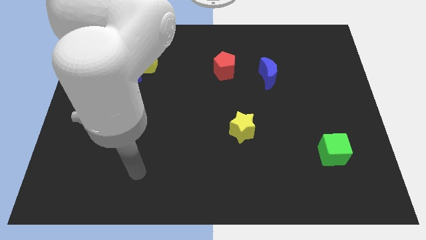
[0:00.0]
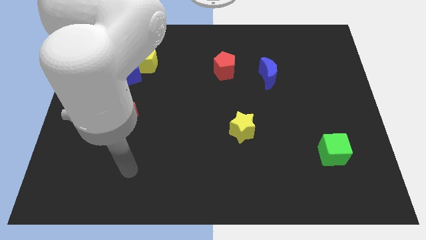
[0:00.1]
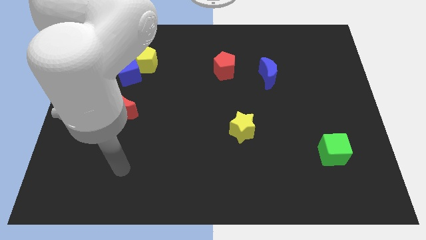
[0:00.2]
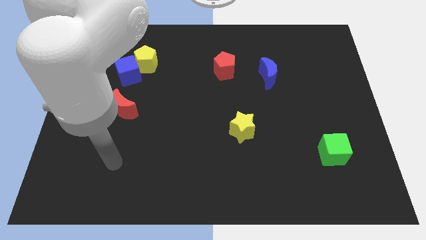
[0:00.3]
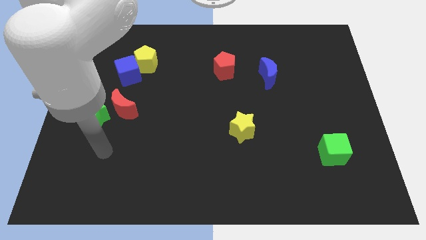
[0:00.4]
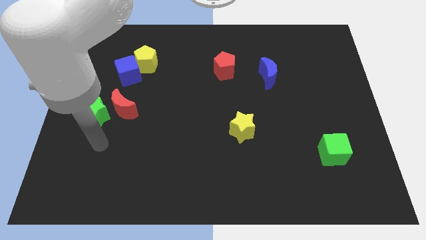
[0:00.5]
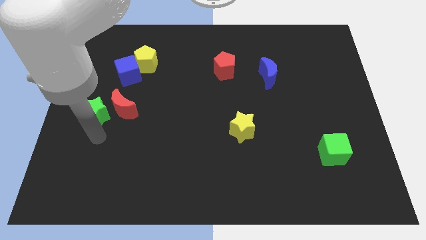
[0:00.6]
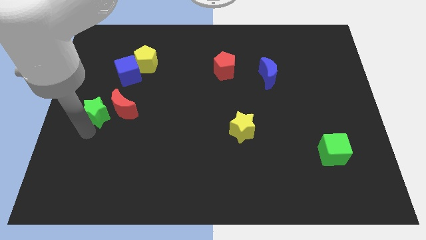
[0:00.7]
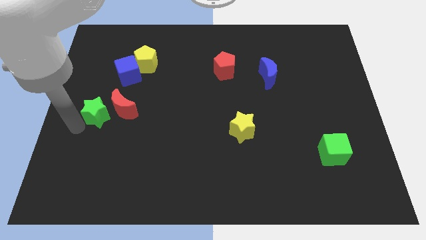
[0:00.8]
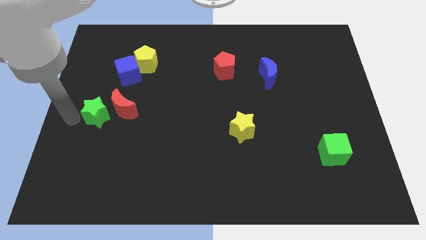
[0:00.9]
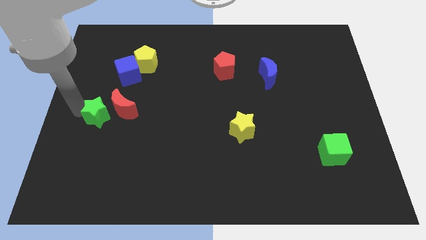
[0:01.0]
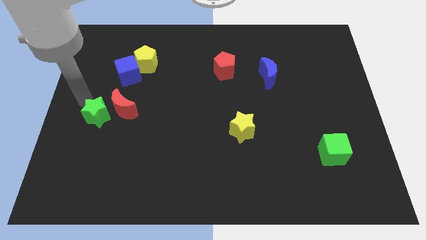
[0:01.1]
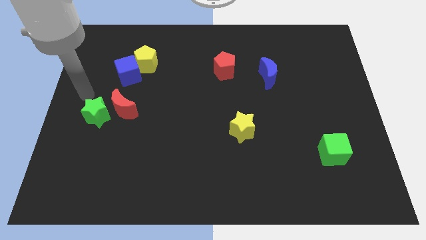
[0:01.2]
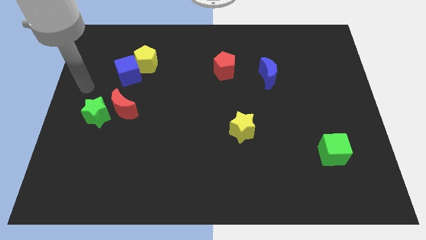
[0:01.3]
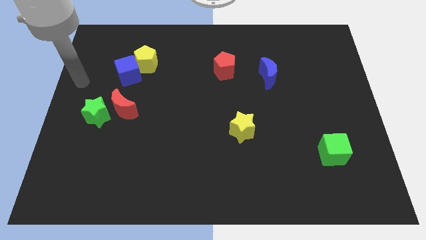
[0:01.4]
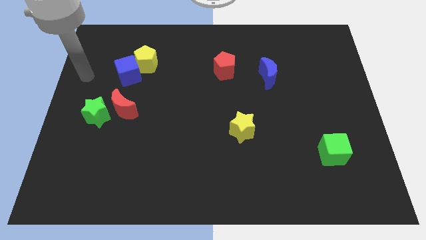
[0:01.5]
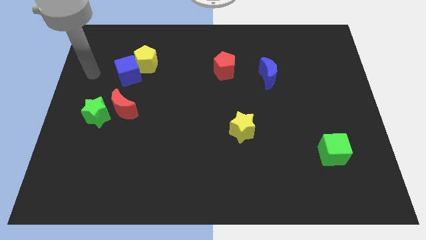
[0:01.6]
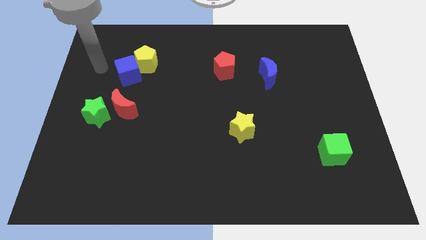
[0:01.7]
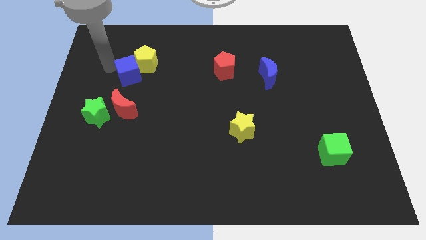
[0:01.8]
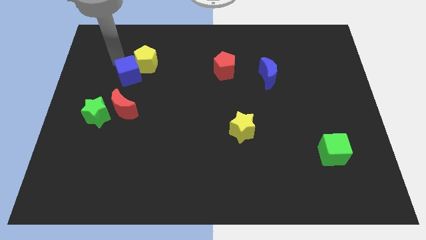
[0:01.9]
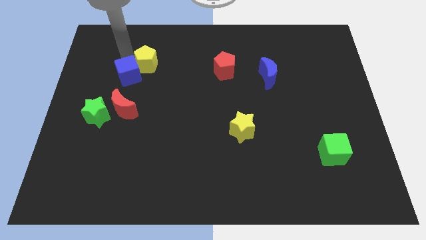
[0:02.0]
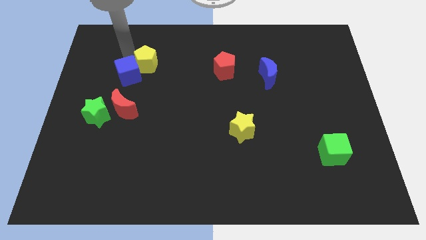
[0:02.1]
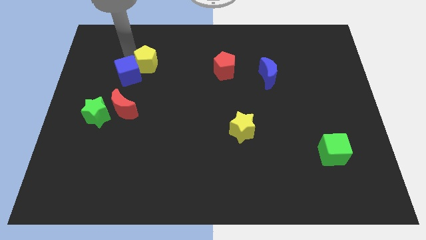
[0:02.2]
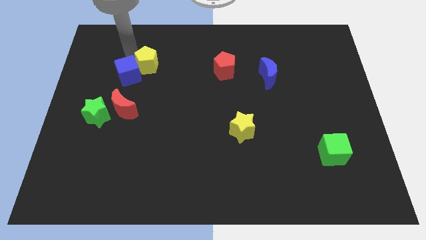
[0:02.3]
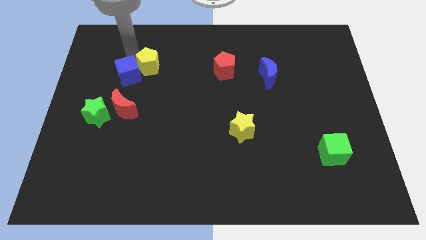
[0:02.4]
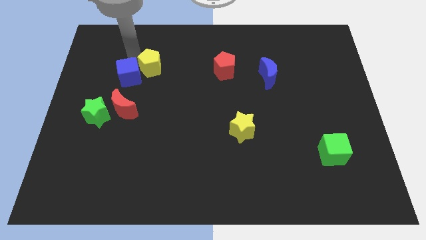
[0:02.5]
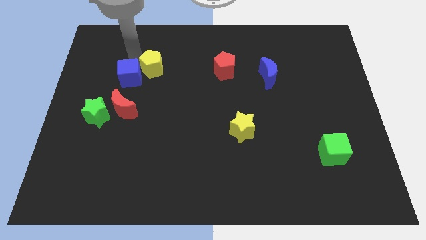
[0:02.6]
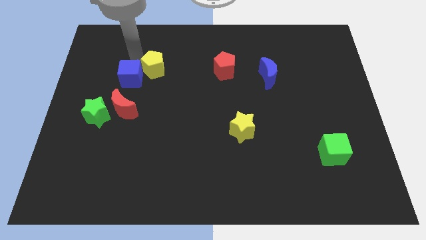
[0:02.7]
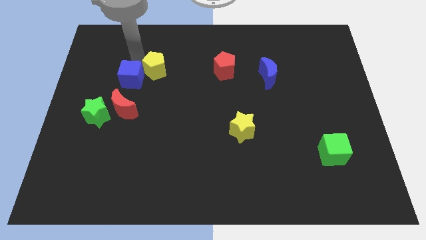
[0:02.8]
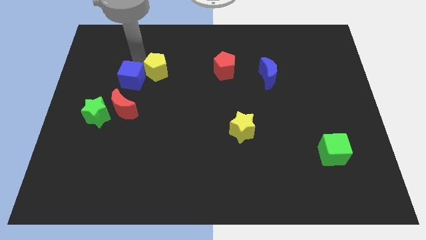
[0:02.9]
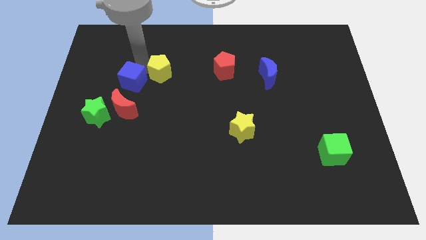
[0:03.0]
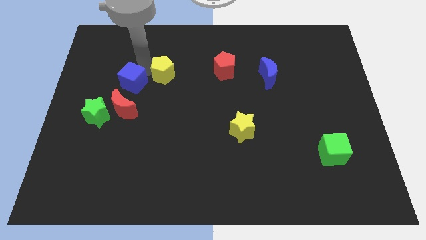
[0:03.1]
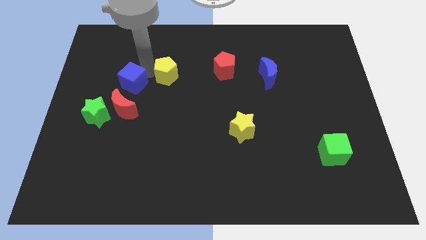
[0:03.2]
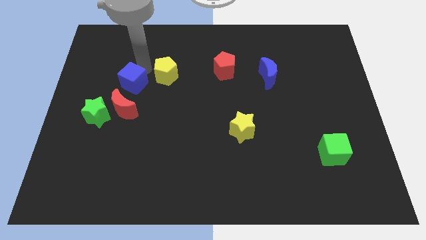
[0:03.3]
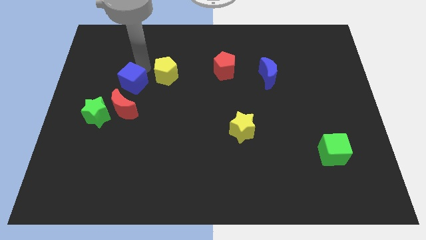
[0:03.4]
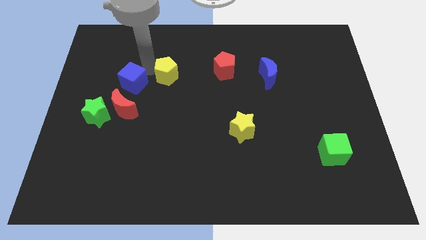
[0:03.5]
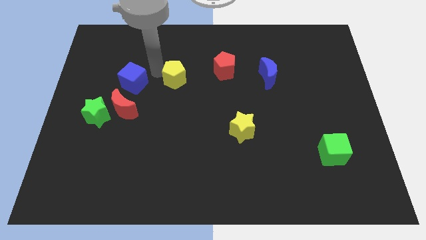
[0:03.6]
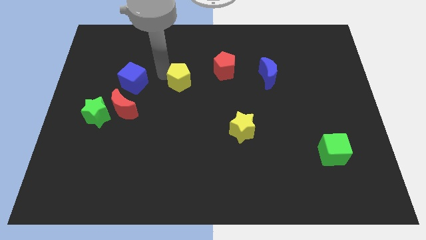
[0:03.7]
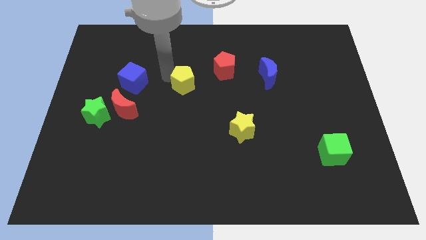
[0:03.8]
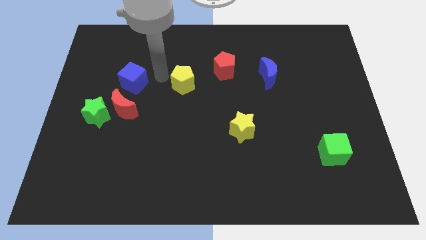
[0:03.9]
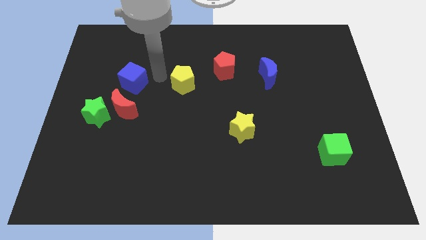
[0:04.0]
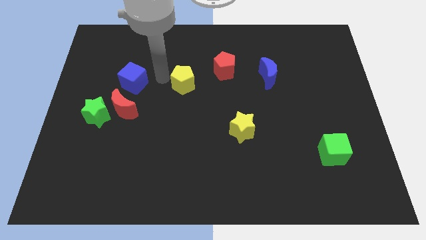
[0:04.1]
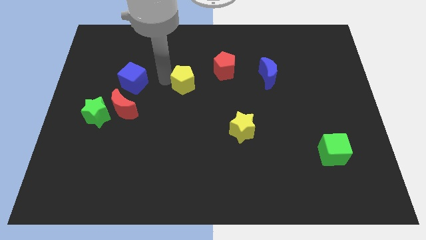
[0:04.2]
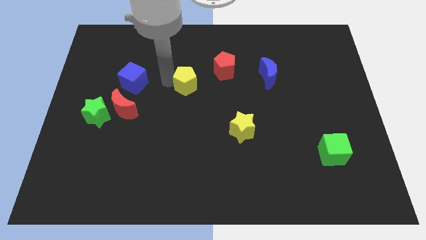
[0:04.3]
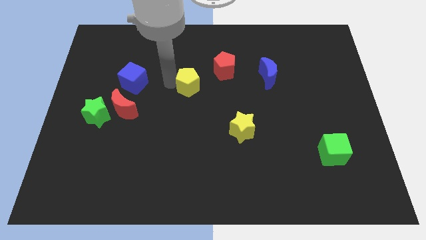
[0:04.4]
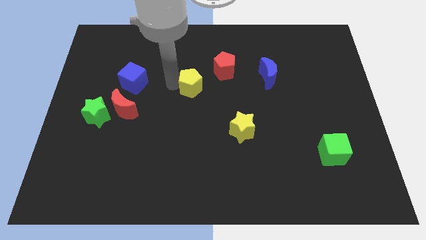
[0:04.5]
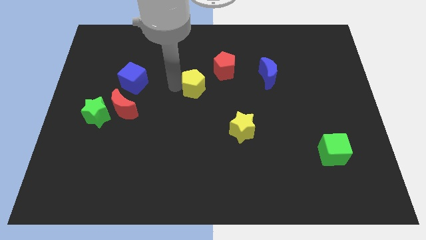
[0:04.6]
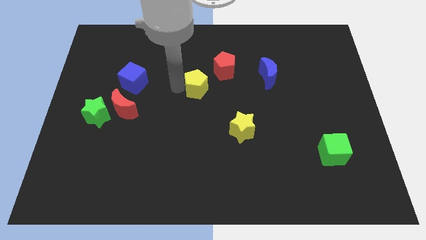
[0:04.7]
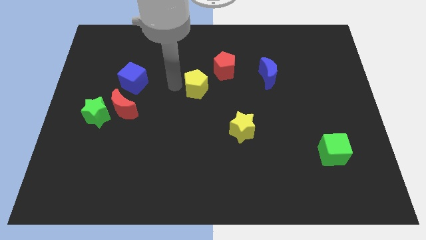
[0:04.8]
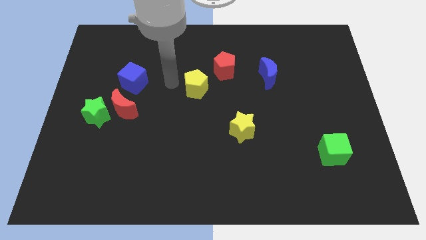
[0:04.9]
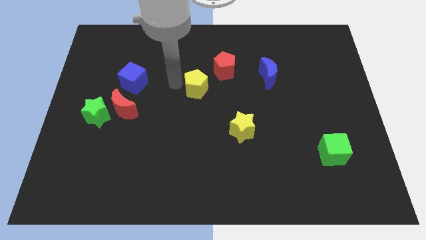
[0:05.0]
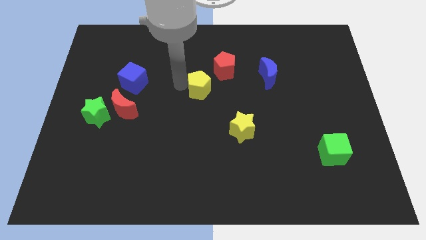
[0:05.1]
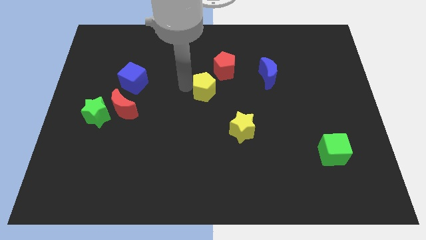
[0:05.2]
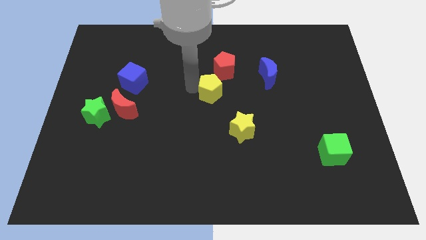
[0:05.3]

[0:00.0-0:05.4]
put the yellow pentagon below the red pentagon

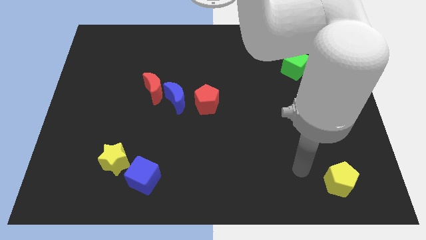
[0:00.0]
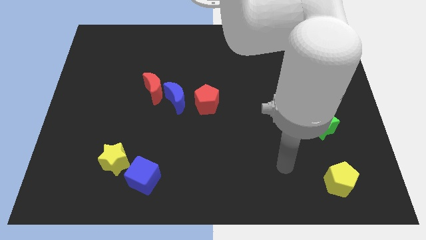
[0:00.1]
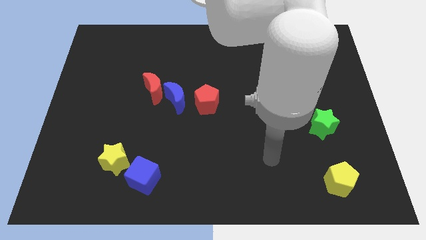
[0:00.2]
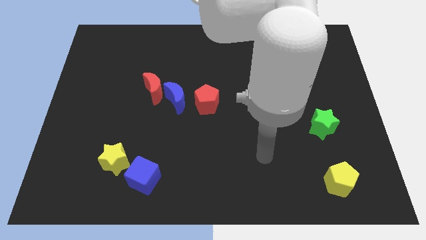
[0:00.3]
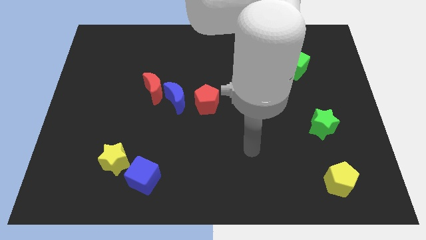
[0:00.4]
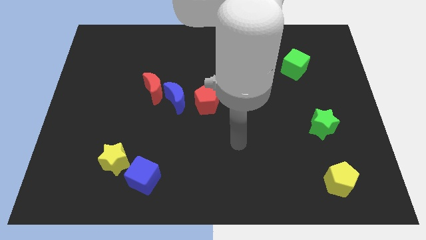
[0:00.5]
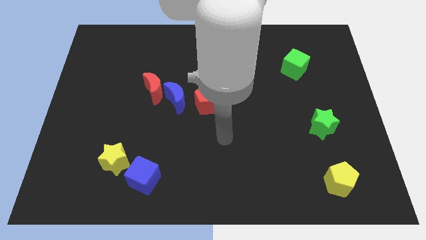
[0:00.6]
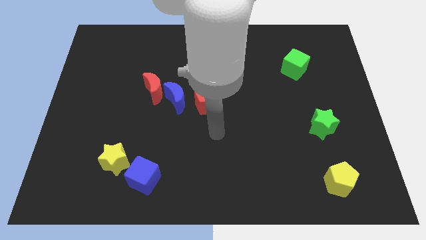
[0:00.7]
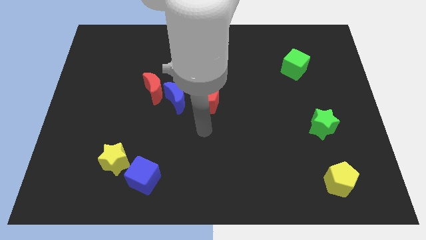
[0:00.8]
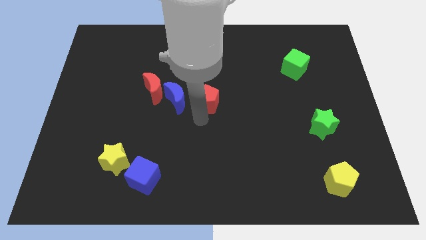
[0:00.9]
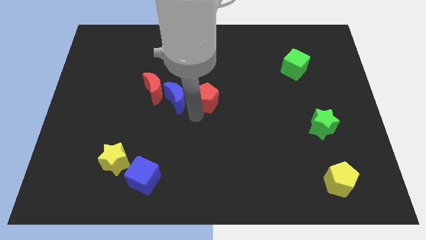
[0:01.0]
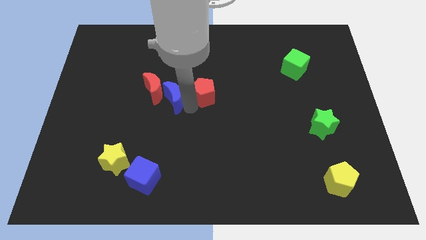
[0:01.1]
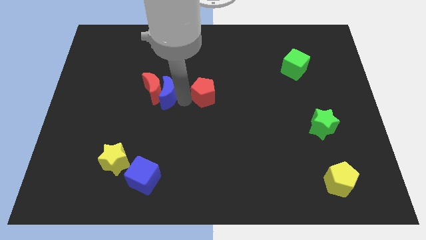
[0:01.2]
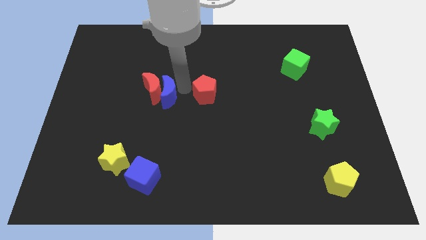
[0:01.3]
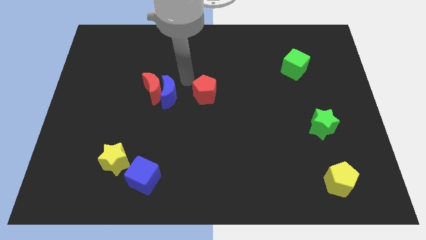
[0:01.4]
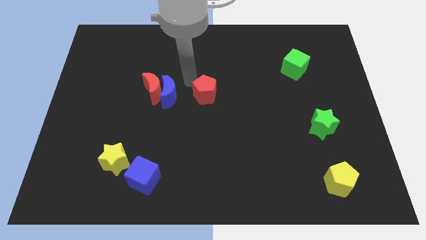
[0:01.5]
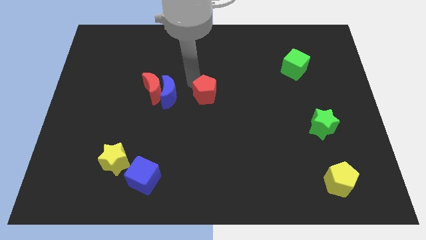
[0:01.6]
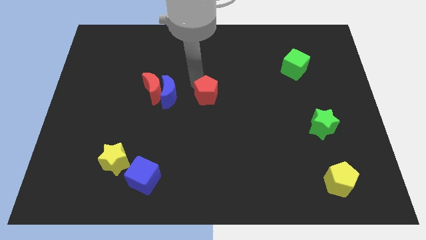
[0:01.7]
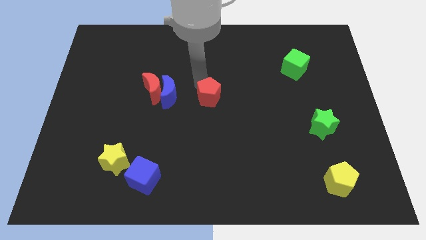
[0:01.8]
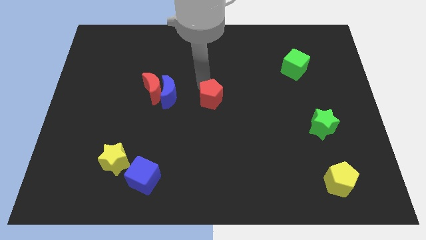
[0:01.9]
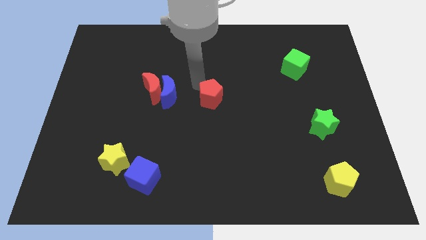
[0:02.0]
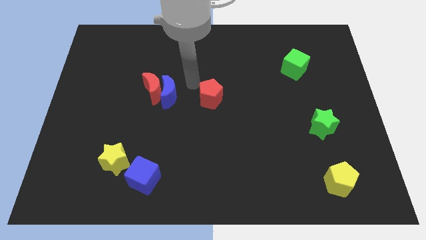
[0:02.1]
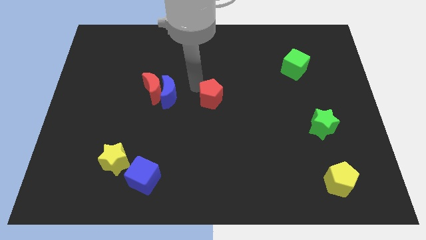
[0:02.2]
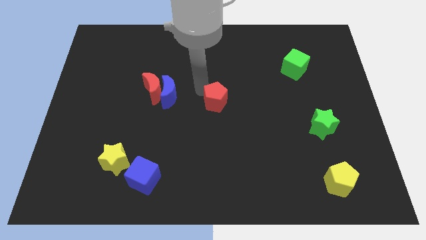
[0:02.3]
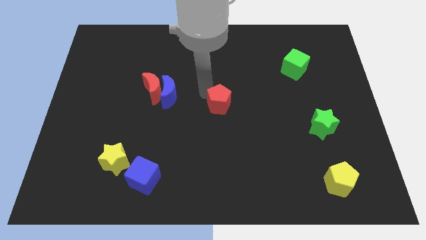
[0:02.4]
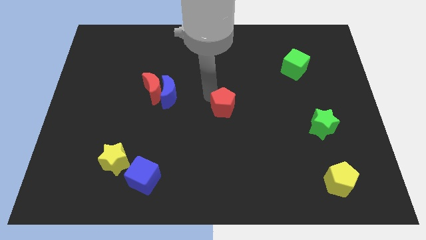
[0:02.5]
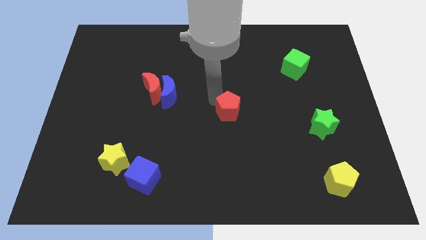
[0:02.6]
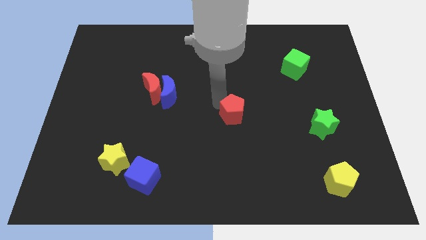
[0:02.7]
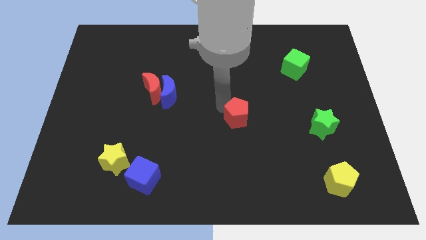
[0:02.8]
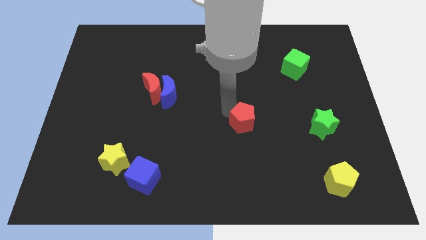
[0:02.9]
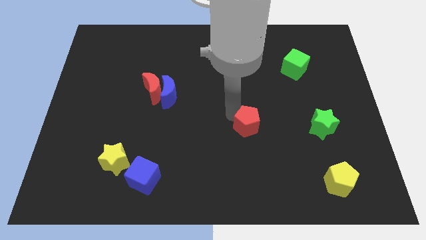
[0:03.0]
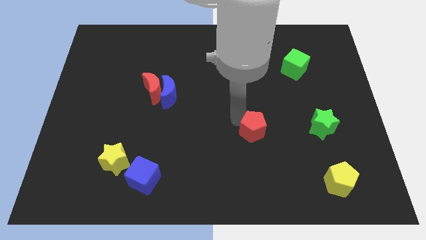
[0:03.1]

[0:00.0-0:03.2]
move the red pentagon to the left of the green star

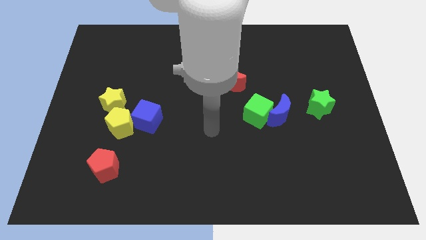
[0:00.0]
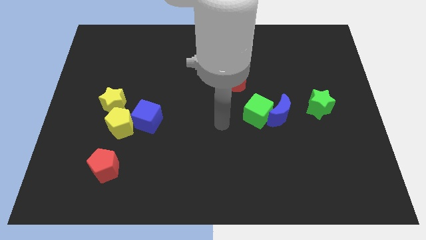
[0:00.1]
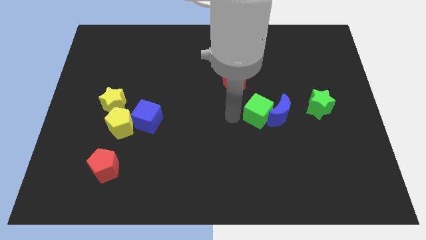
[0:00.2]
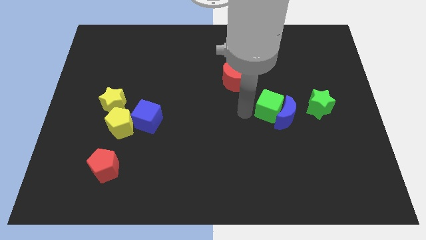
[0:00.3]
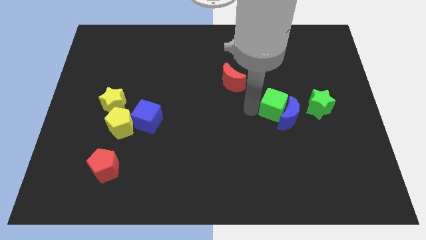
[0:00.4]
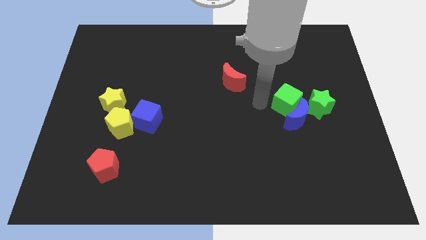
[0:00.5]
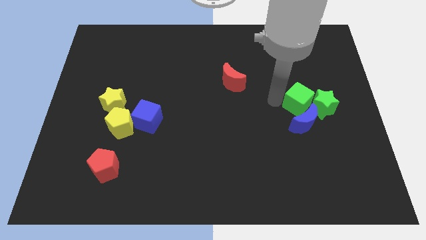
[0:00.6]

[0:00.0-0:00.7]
push the blue moon below the green star
